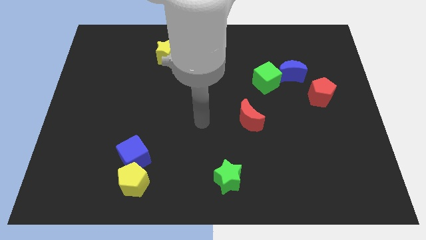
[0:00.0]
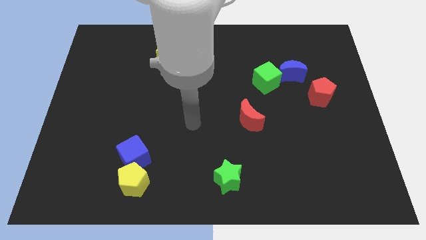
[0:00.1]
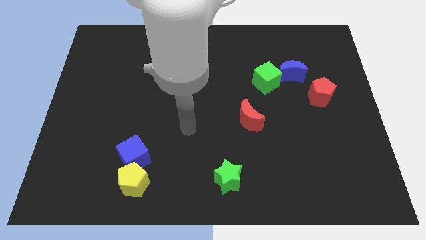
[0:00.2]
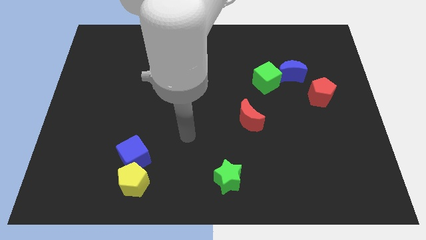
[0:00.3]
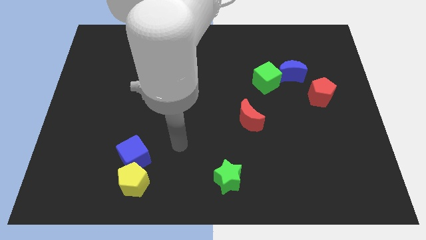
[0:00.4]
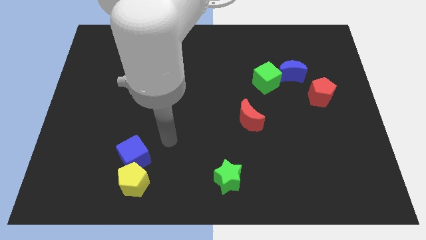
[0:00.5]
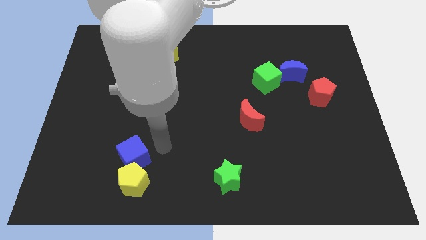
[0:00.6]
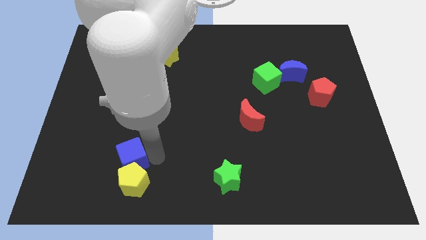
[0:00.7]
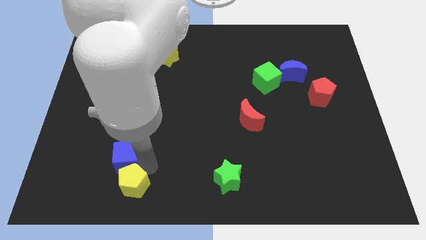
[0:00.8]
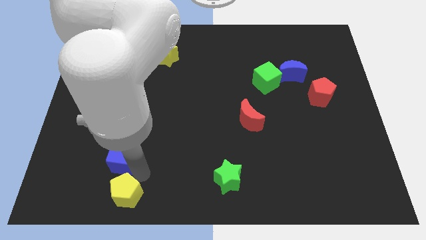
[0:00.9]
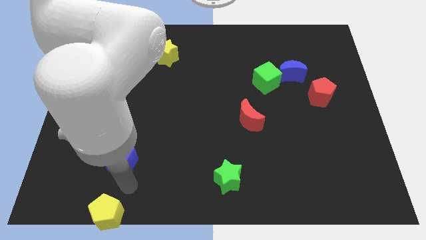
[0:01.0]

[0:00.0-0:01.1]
move the blue cube away from the yellow pentagon

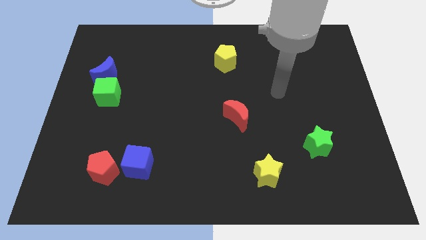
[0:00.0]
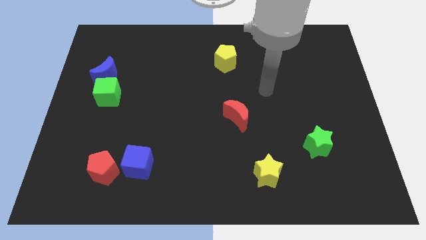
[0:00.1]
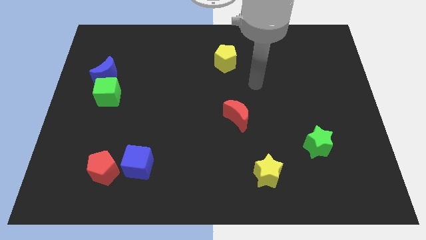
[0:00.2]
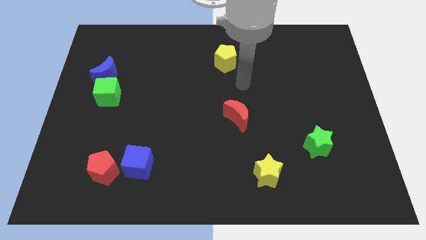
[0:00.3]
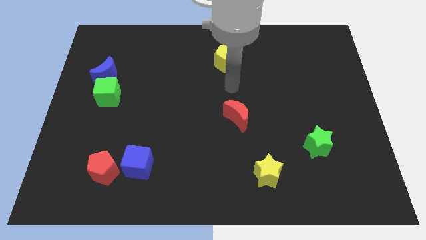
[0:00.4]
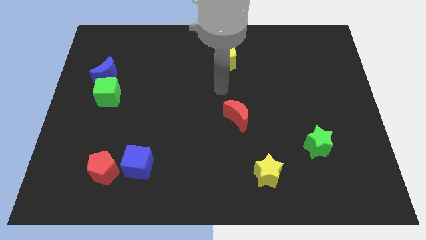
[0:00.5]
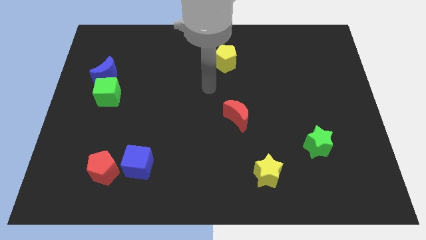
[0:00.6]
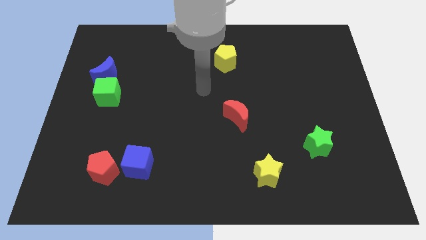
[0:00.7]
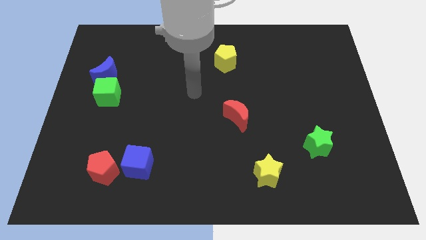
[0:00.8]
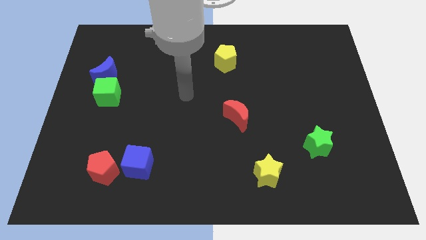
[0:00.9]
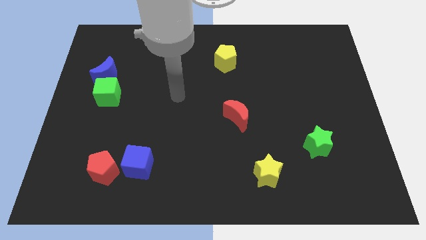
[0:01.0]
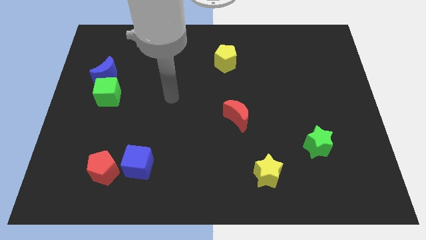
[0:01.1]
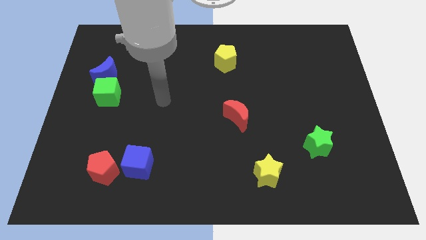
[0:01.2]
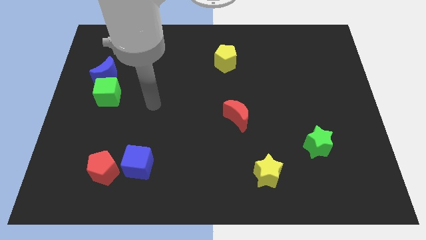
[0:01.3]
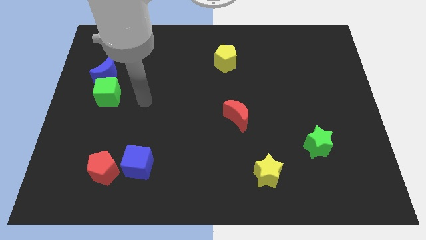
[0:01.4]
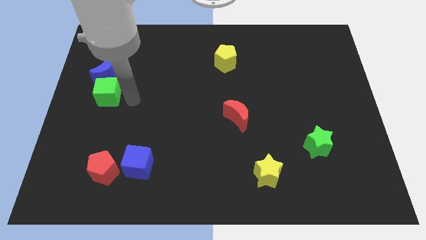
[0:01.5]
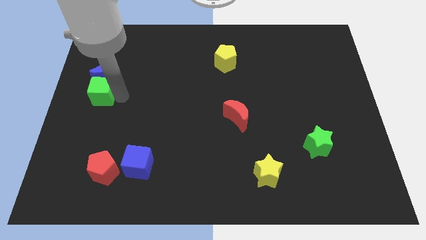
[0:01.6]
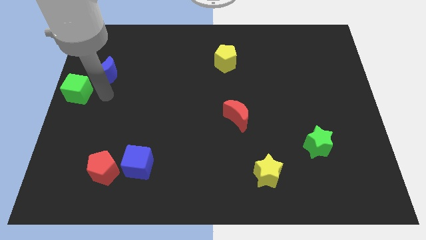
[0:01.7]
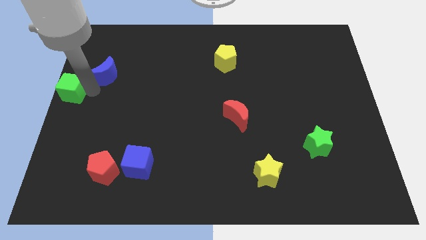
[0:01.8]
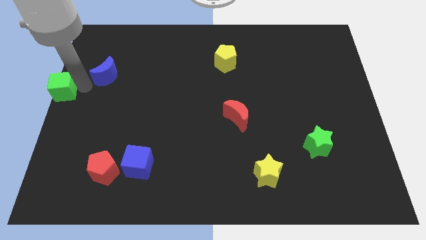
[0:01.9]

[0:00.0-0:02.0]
move the blue moon away from the green cube

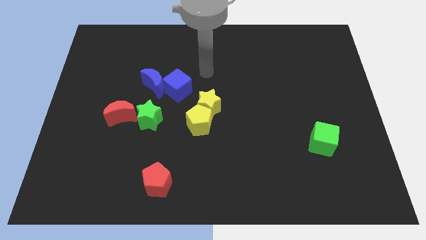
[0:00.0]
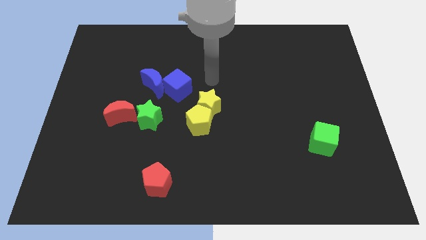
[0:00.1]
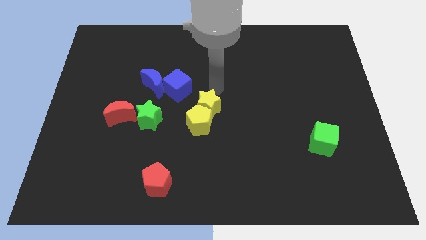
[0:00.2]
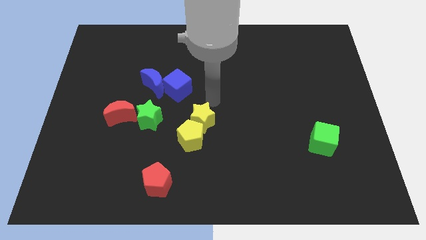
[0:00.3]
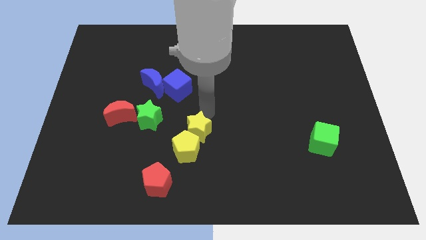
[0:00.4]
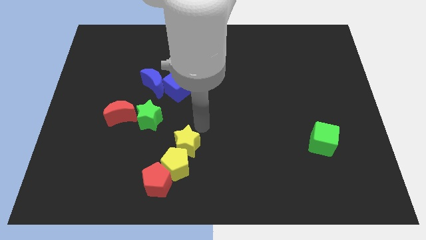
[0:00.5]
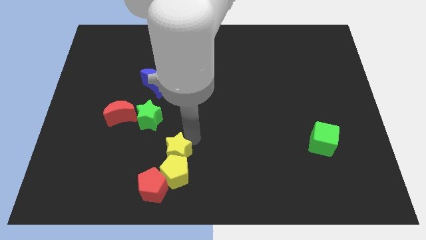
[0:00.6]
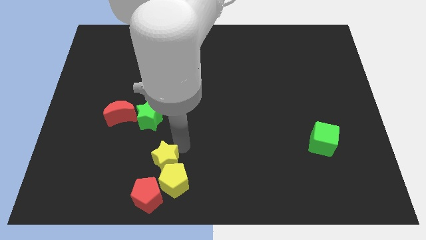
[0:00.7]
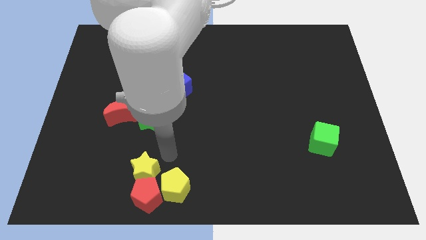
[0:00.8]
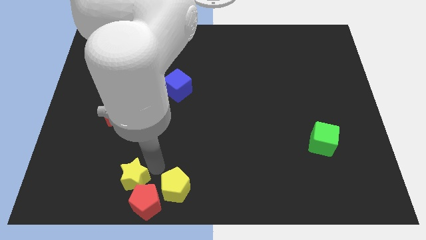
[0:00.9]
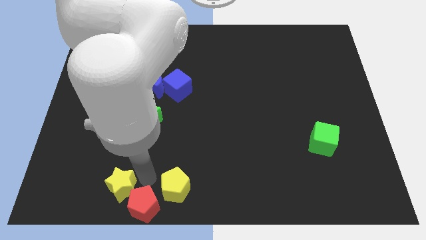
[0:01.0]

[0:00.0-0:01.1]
separate the yellow pentagon from the yellow star

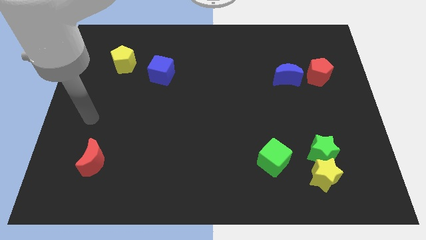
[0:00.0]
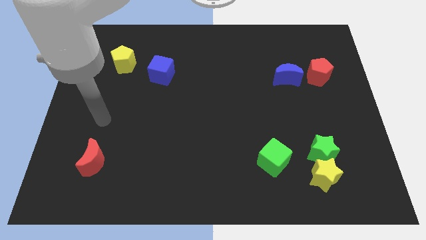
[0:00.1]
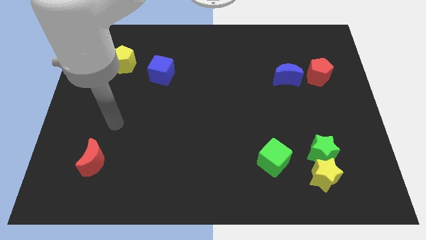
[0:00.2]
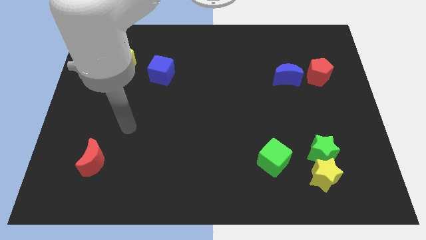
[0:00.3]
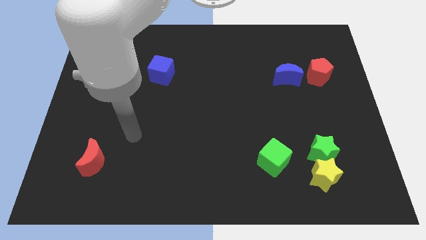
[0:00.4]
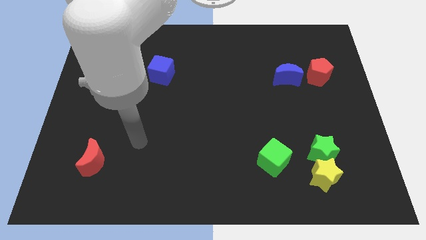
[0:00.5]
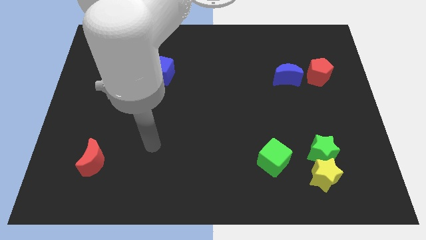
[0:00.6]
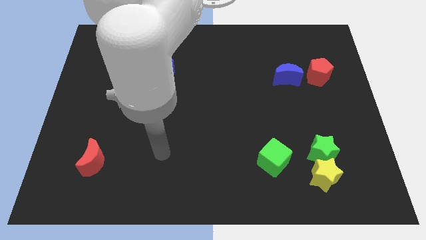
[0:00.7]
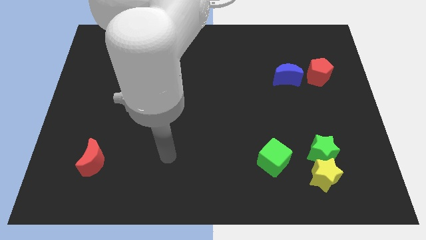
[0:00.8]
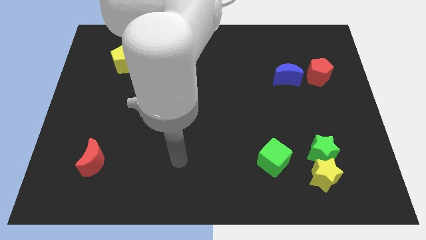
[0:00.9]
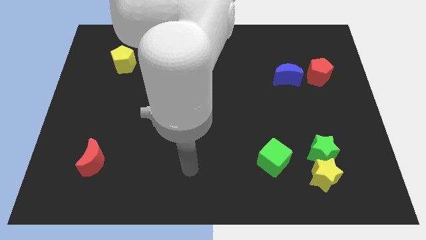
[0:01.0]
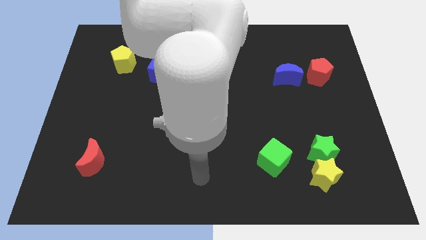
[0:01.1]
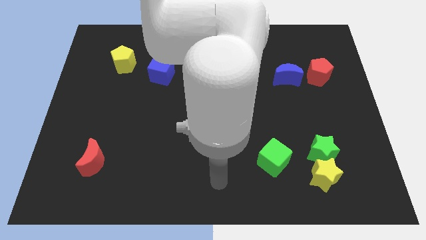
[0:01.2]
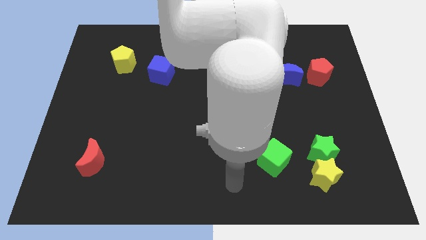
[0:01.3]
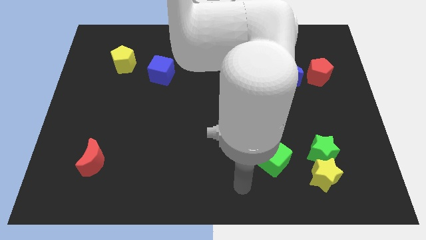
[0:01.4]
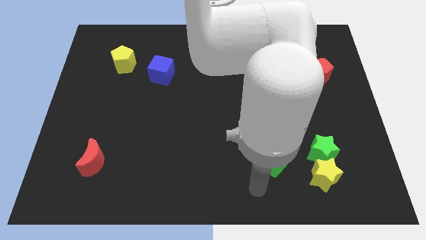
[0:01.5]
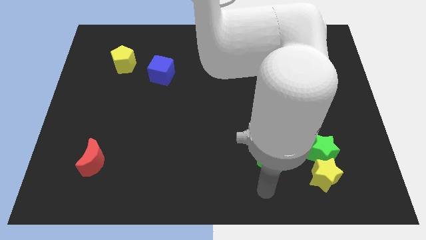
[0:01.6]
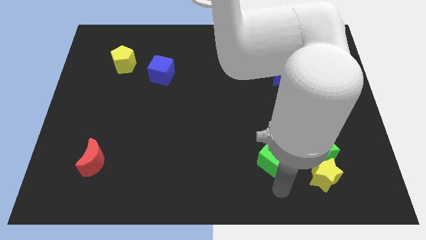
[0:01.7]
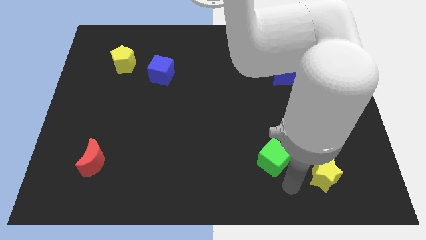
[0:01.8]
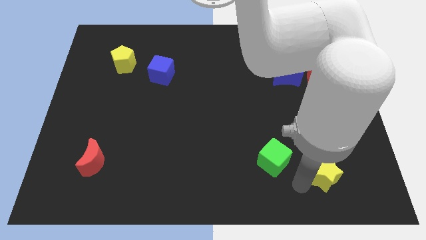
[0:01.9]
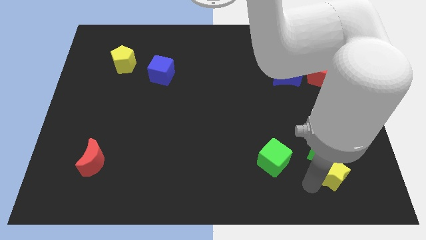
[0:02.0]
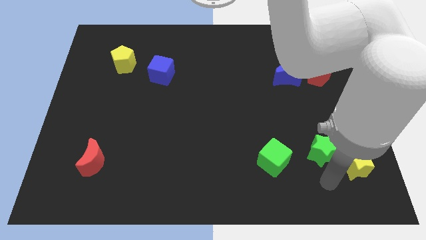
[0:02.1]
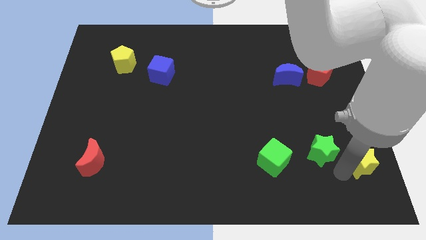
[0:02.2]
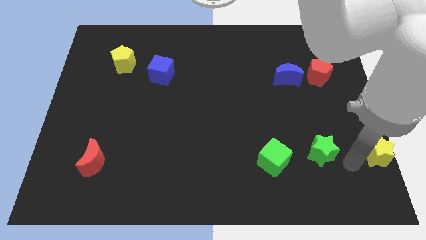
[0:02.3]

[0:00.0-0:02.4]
separate the green star from the yellow star

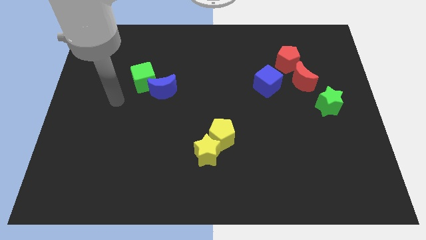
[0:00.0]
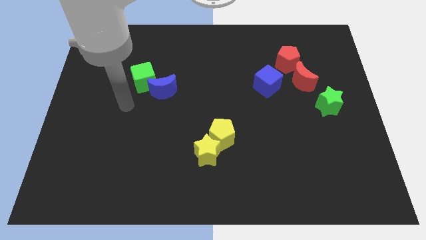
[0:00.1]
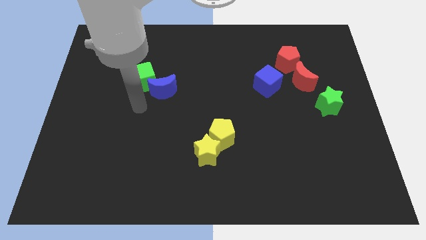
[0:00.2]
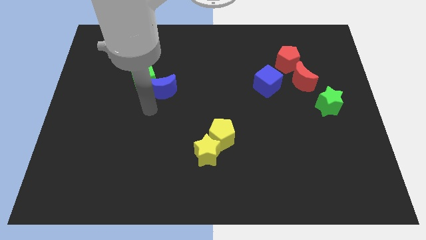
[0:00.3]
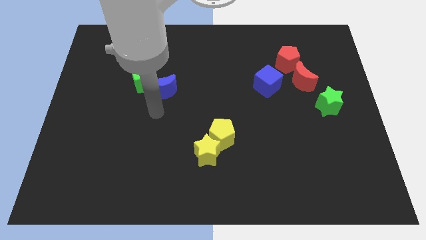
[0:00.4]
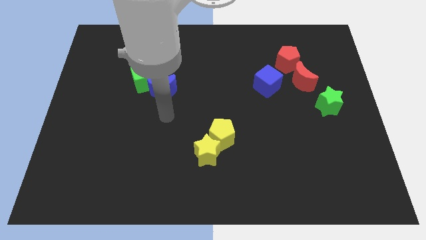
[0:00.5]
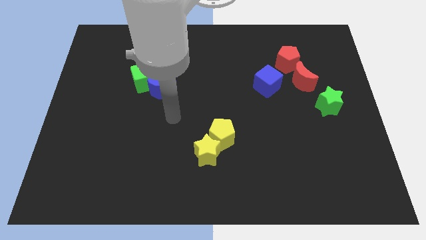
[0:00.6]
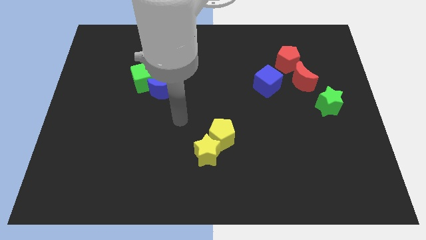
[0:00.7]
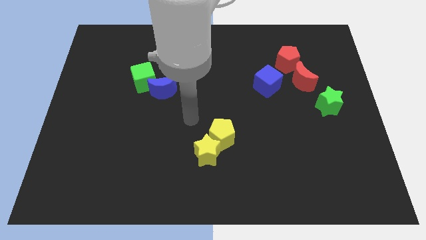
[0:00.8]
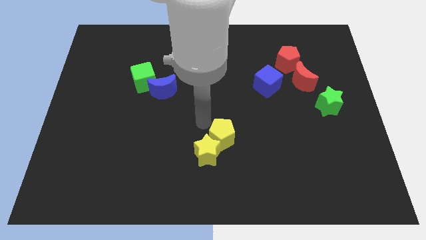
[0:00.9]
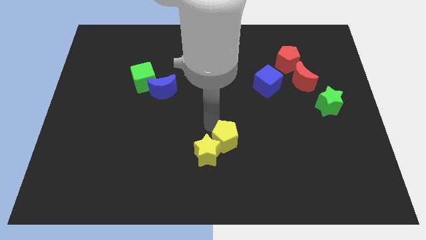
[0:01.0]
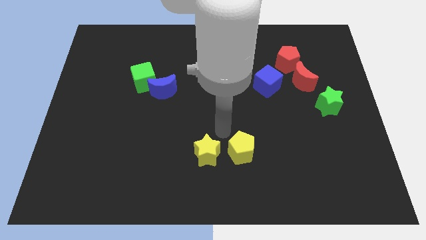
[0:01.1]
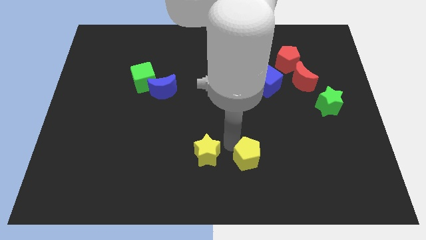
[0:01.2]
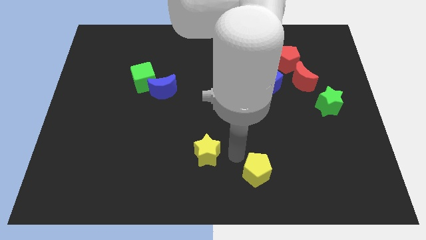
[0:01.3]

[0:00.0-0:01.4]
move the yellow star away from the yellow pentagon

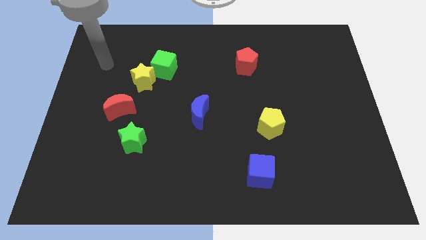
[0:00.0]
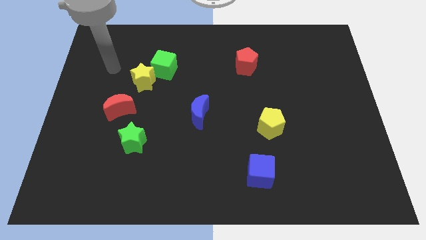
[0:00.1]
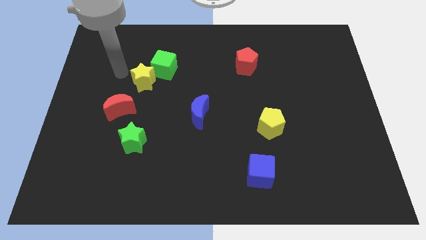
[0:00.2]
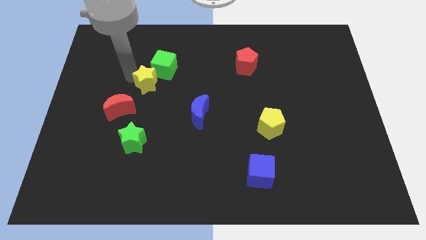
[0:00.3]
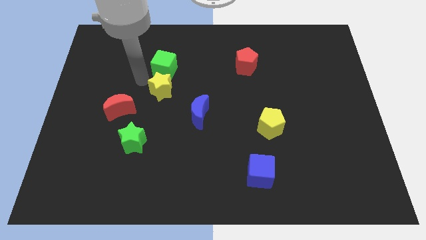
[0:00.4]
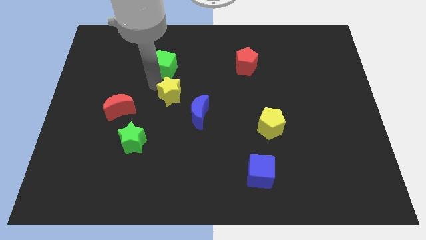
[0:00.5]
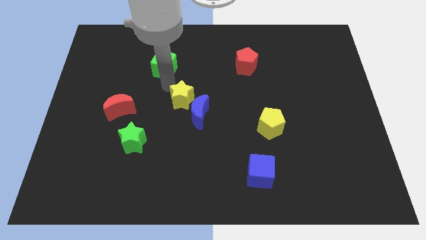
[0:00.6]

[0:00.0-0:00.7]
move the green cube away from the yellow star

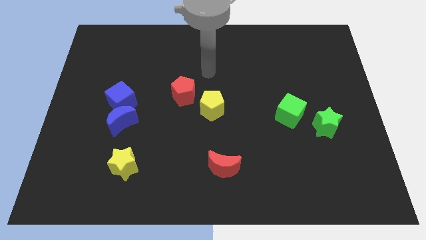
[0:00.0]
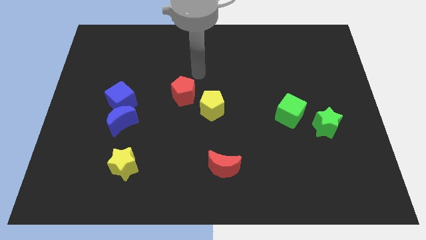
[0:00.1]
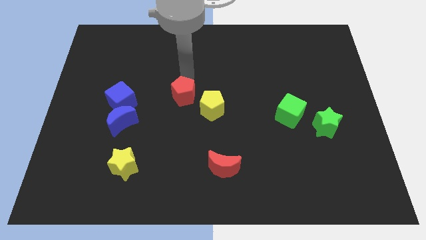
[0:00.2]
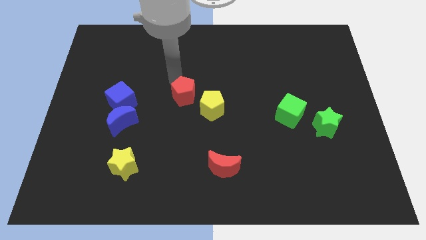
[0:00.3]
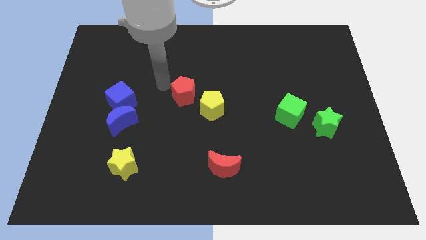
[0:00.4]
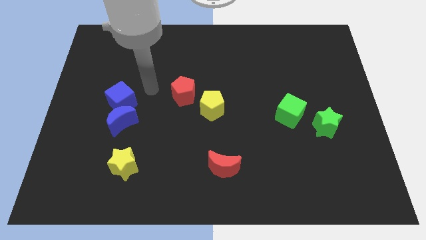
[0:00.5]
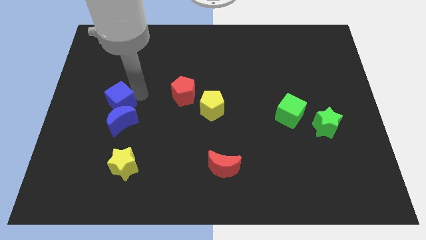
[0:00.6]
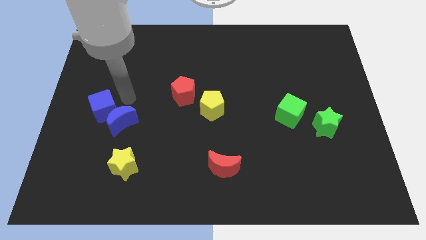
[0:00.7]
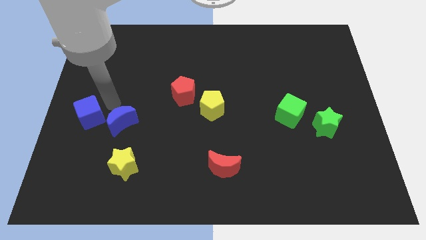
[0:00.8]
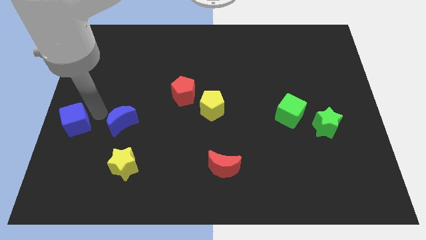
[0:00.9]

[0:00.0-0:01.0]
pull the blue moon apart from the blue cube
